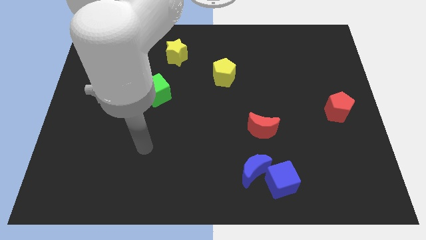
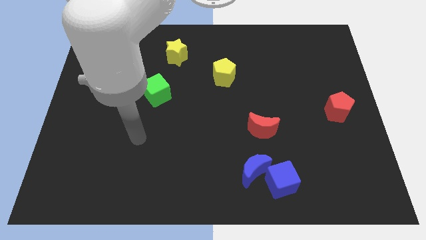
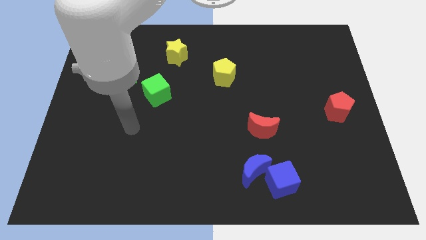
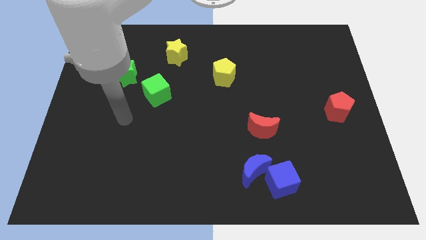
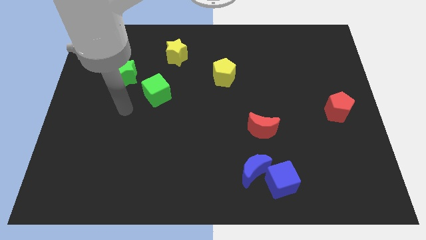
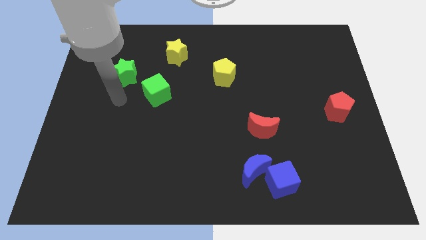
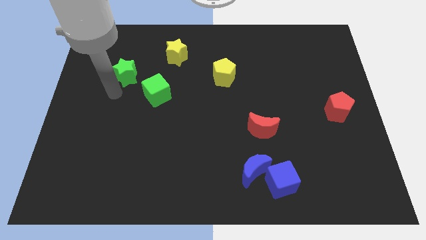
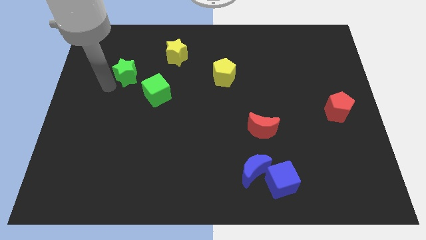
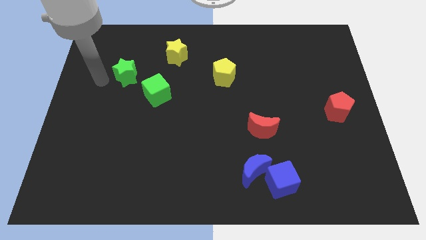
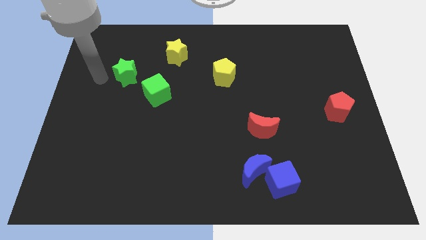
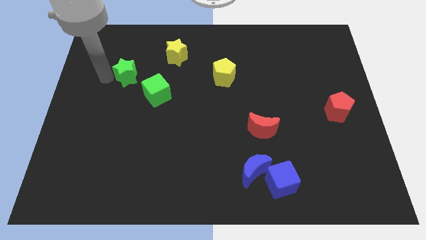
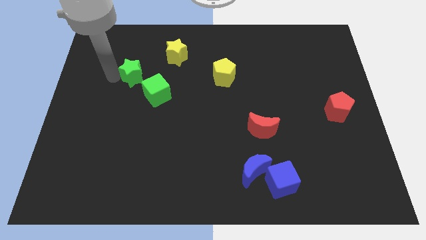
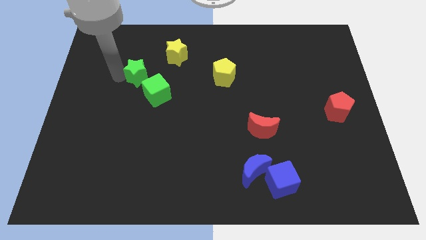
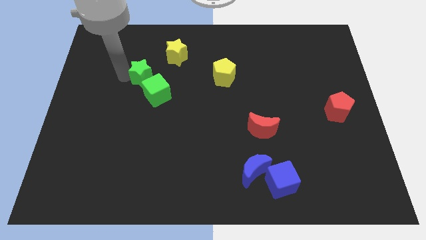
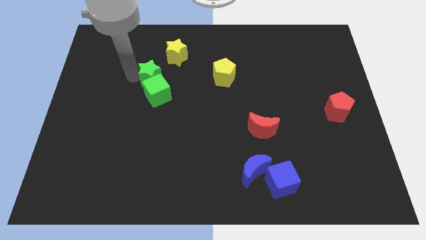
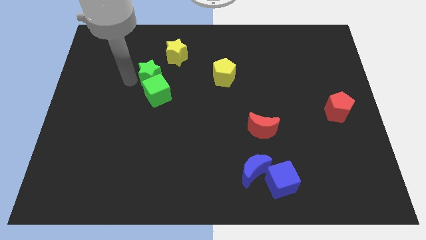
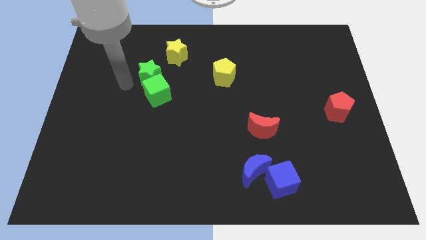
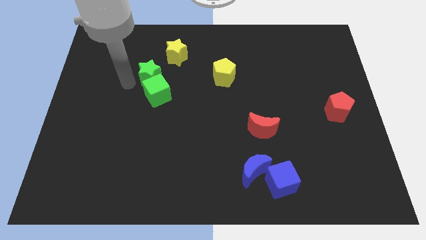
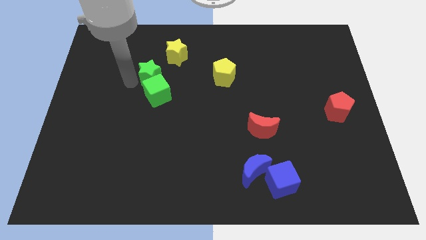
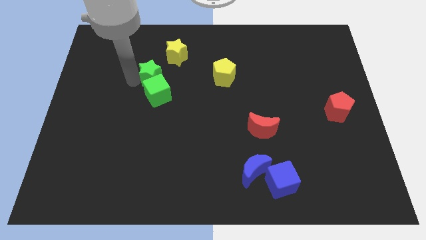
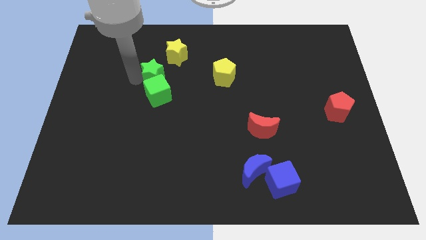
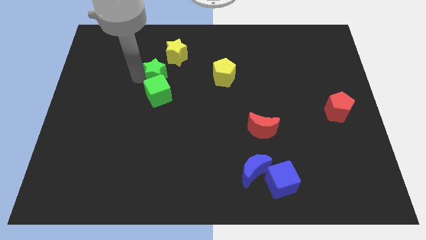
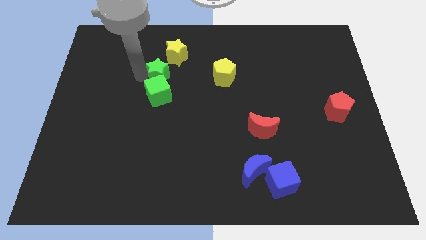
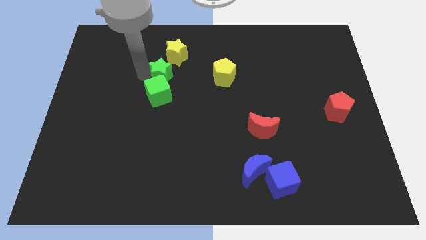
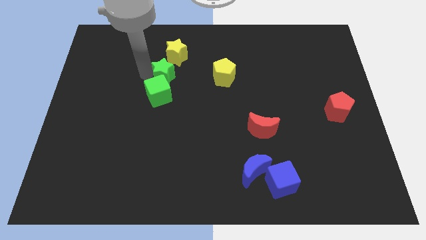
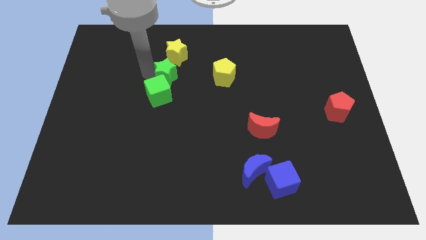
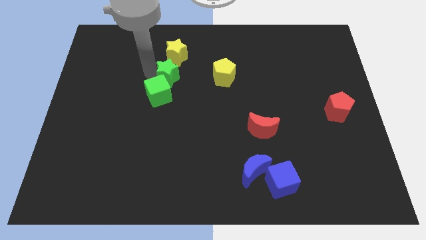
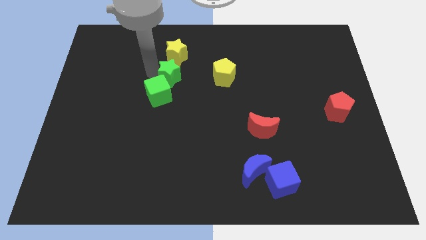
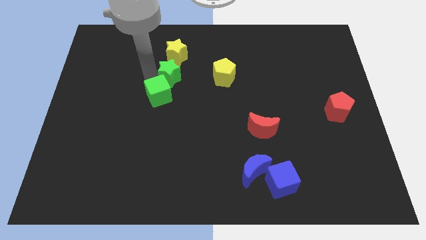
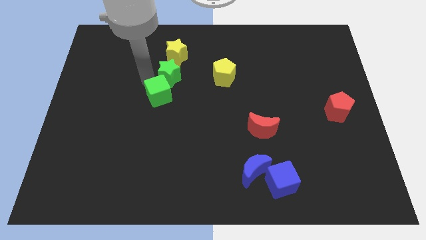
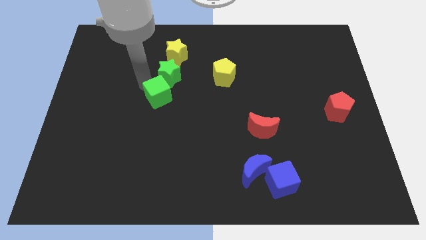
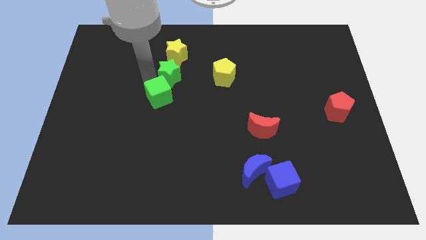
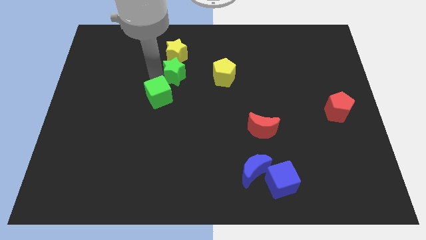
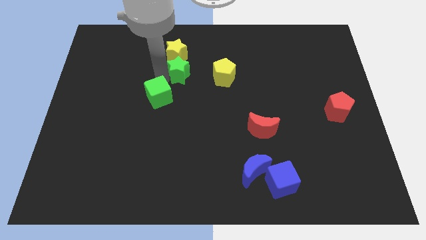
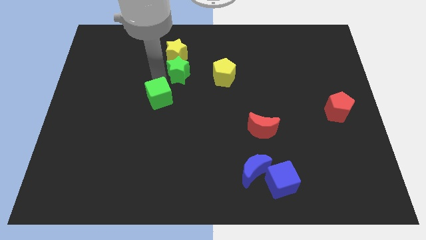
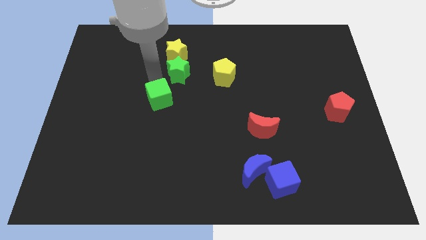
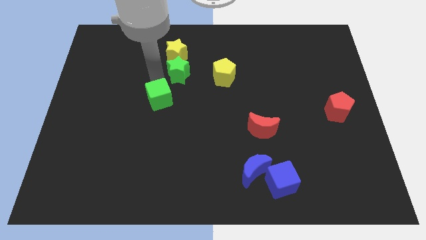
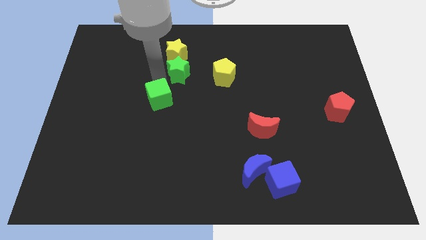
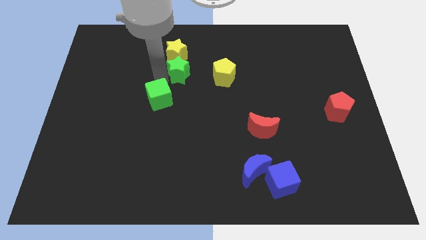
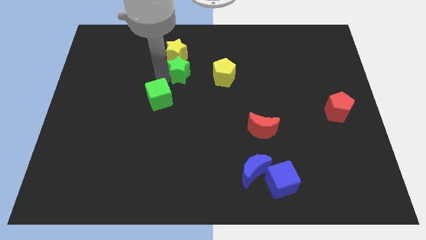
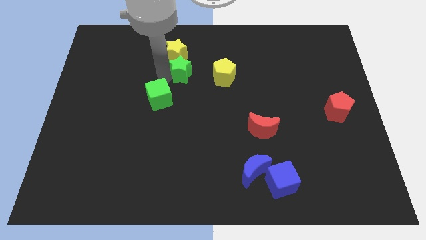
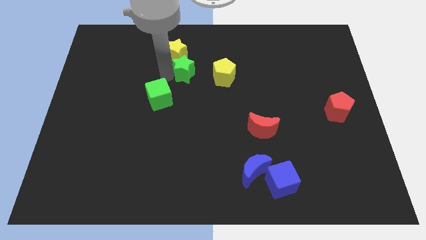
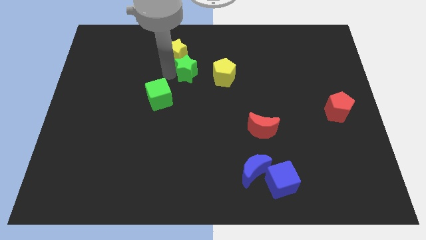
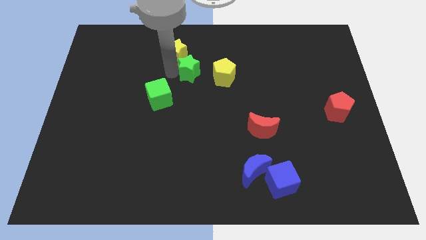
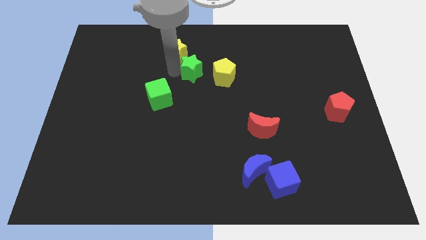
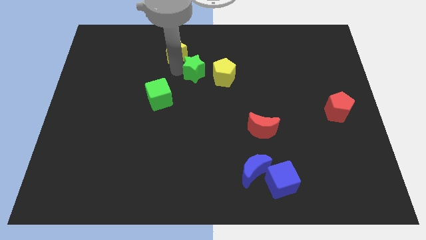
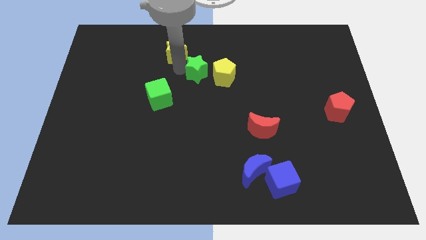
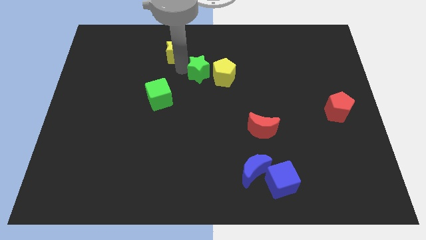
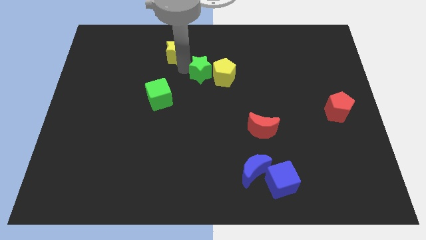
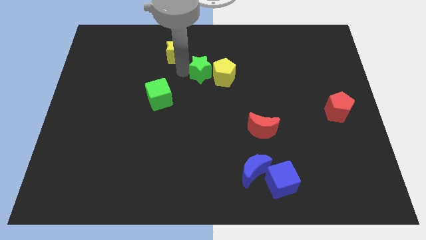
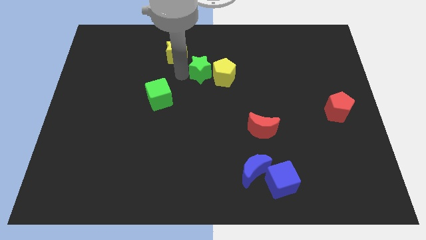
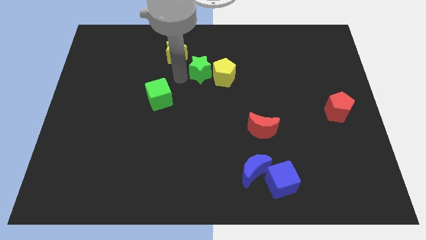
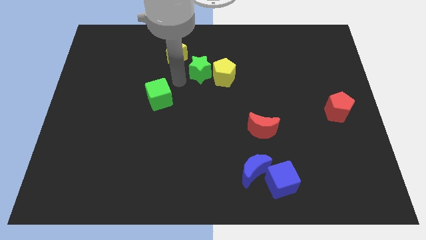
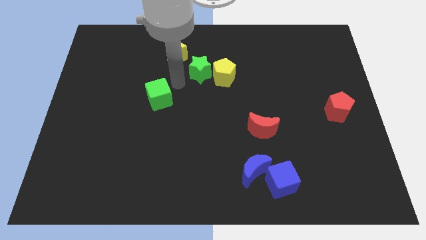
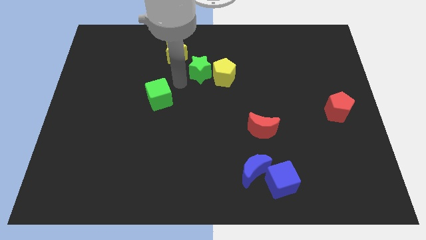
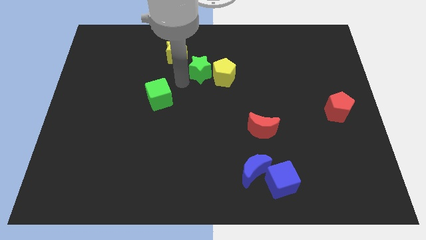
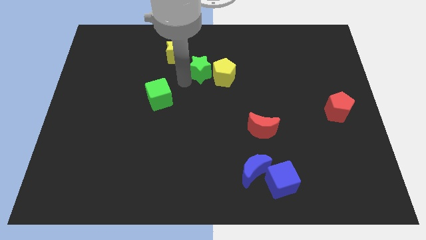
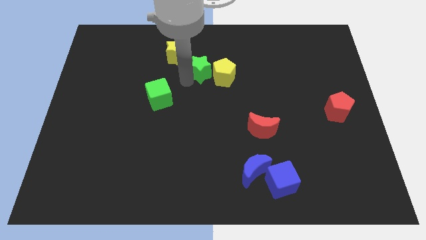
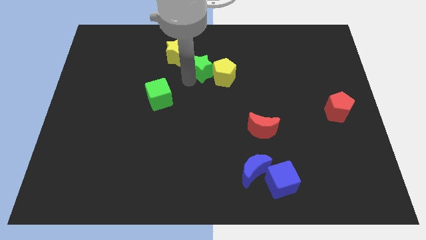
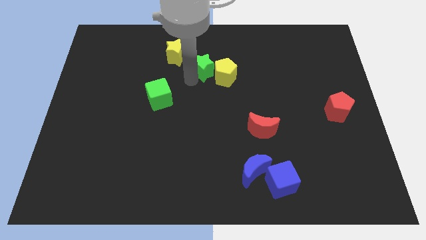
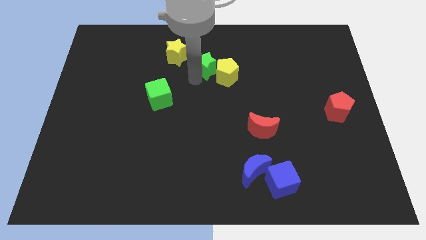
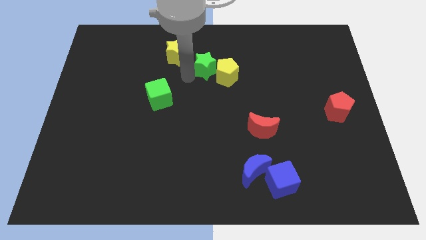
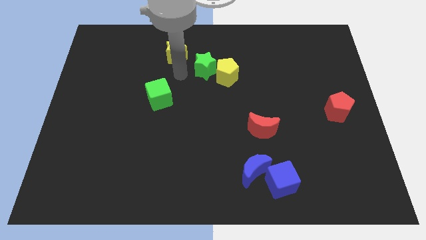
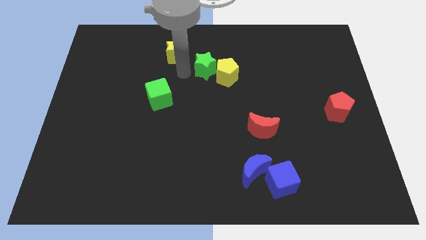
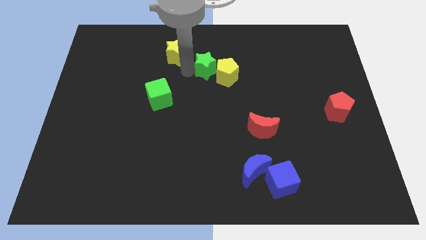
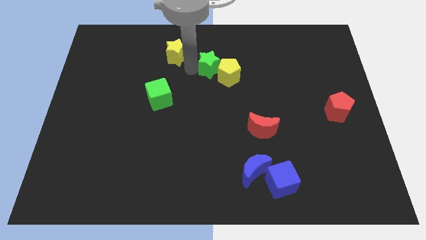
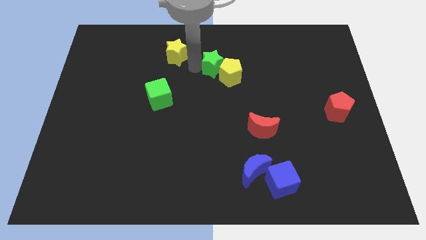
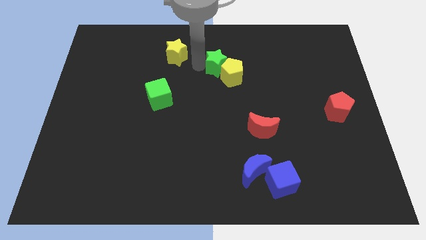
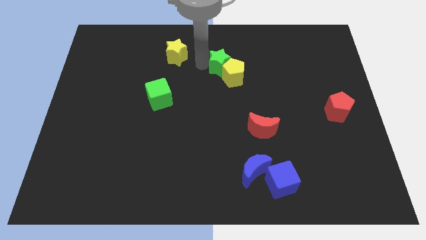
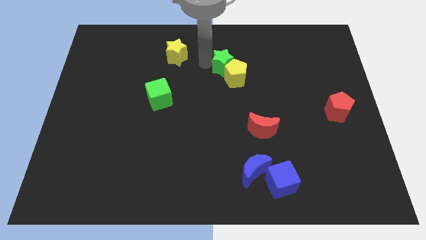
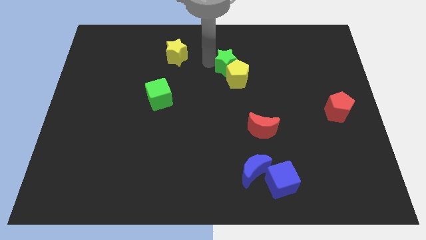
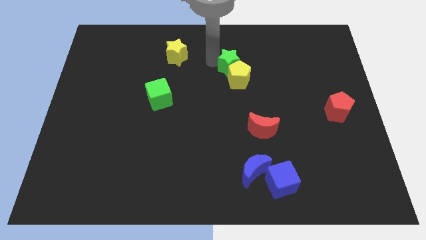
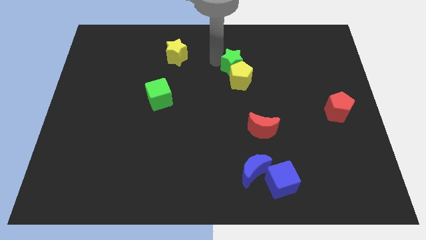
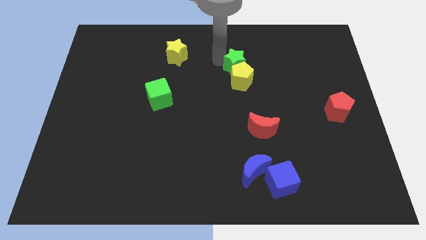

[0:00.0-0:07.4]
put the green star to the top right of the yellow pentagon
